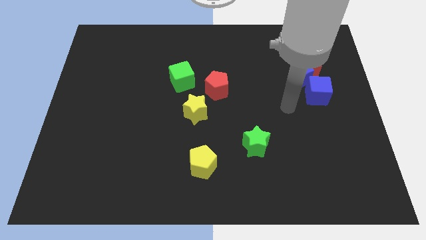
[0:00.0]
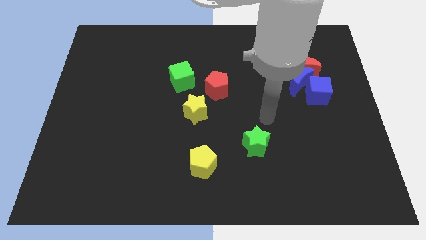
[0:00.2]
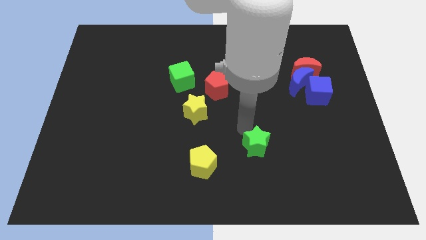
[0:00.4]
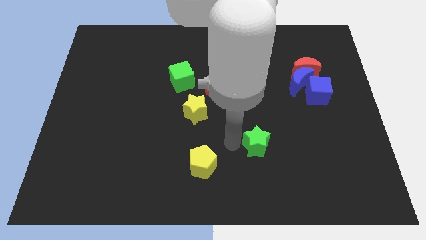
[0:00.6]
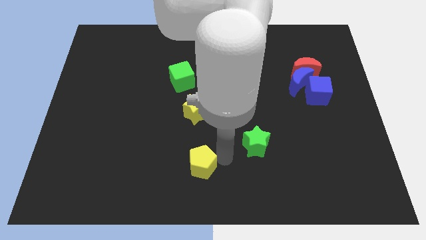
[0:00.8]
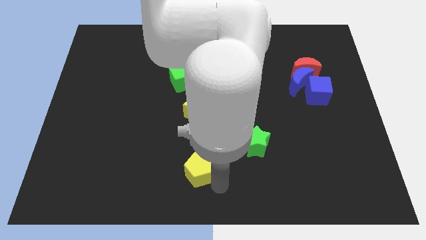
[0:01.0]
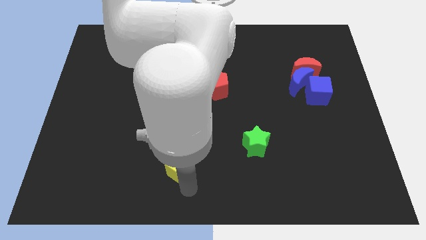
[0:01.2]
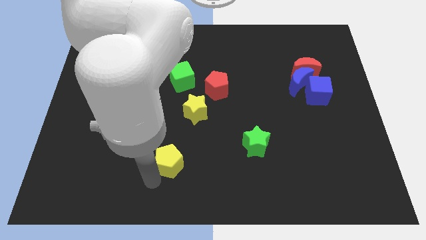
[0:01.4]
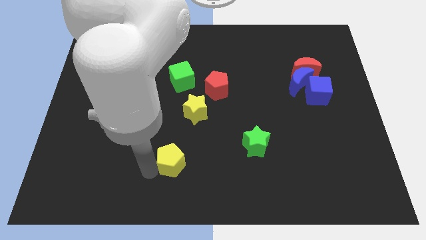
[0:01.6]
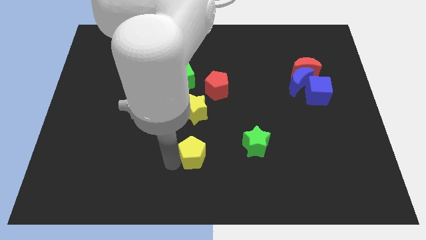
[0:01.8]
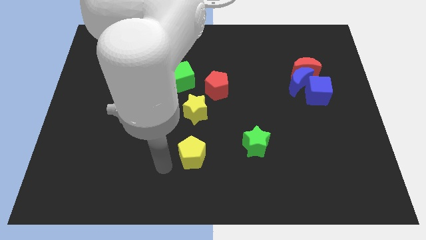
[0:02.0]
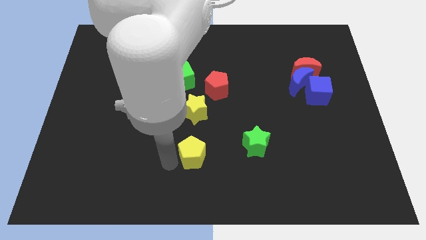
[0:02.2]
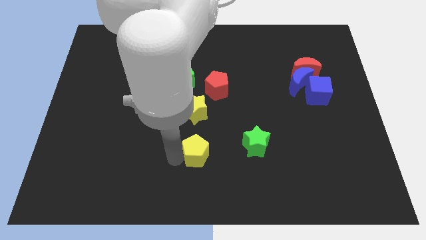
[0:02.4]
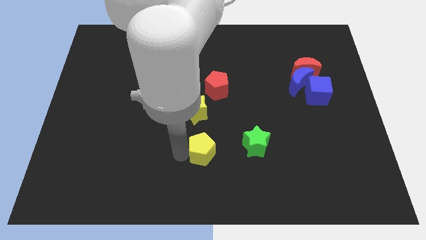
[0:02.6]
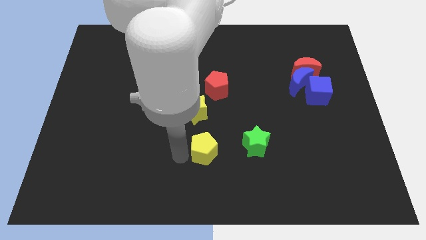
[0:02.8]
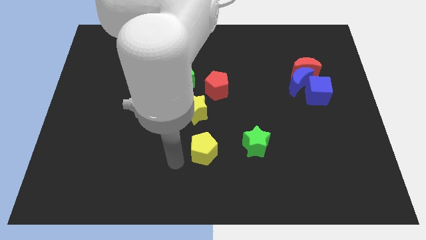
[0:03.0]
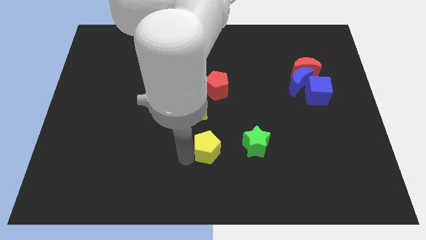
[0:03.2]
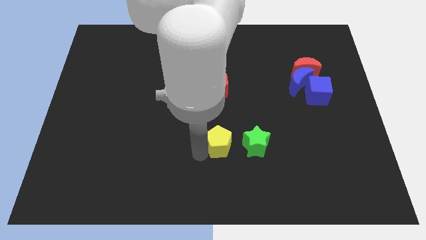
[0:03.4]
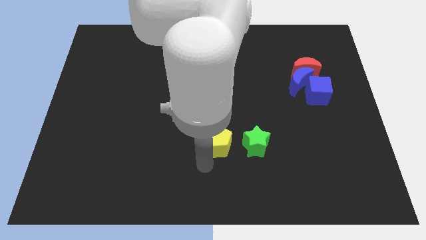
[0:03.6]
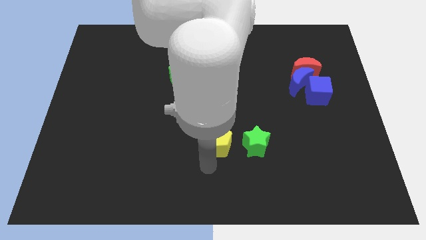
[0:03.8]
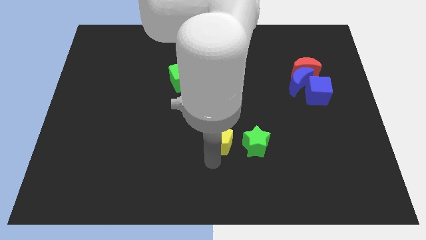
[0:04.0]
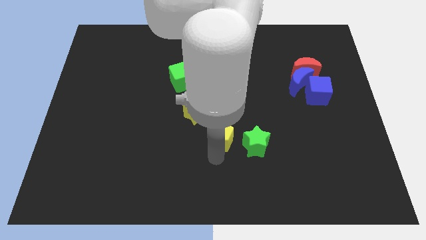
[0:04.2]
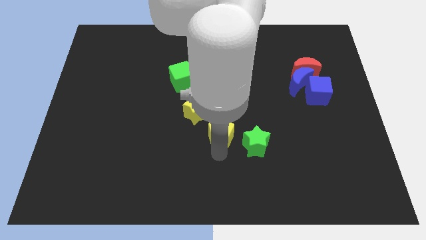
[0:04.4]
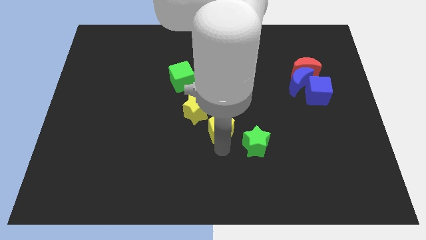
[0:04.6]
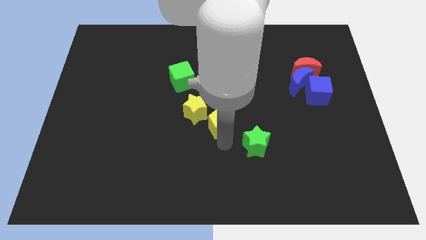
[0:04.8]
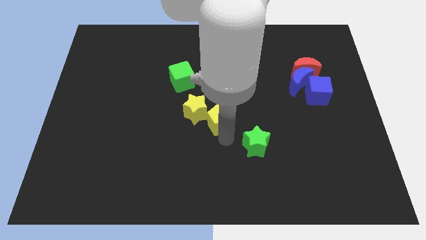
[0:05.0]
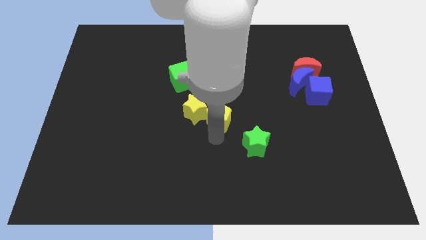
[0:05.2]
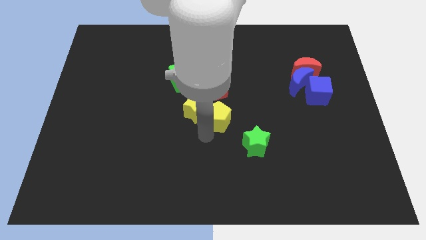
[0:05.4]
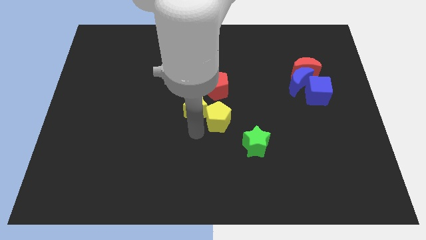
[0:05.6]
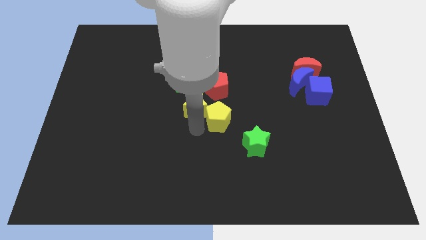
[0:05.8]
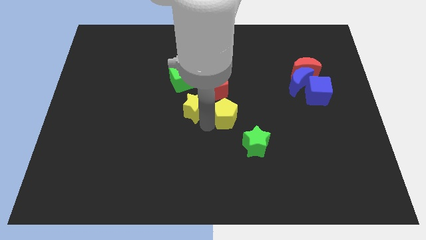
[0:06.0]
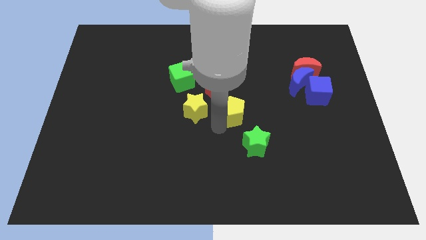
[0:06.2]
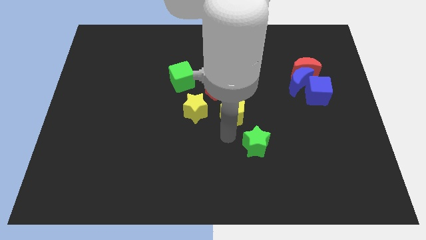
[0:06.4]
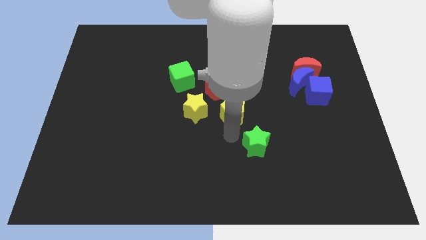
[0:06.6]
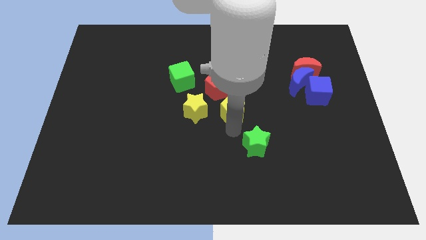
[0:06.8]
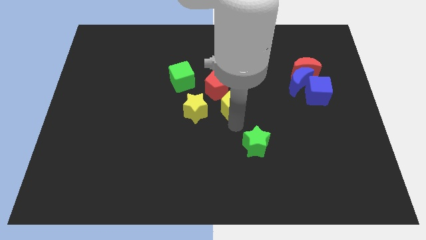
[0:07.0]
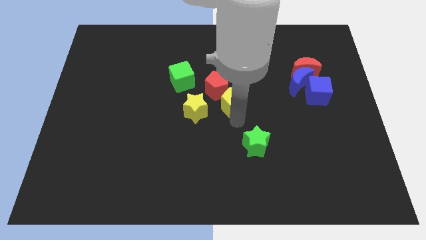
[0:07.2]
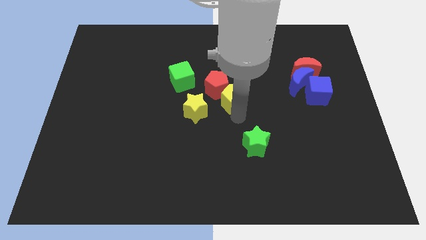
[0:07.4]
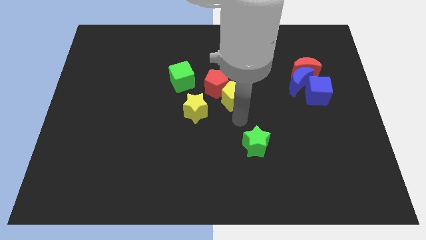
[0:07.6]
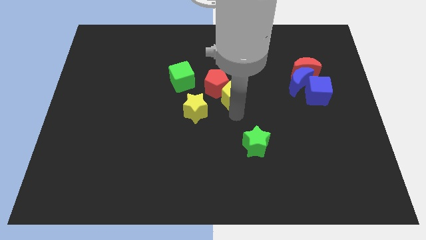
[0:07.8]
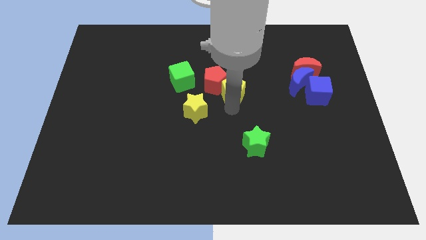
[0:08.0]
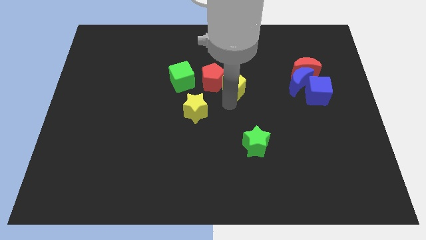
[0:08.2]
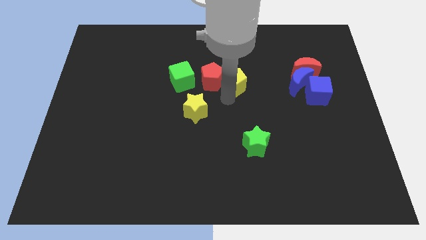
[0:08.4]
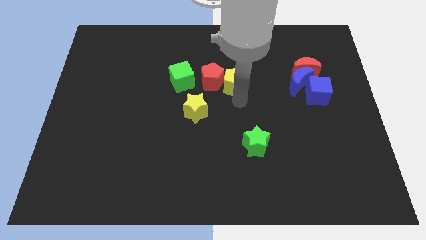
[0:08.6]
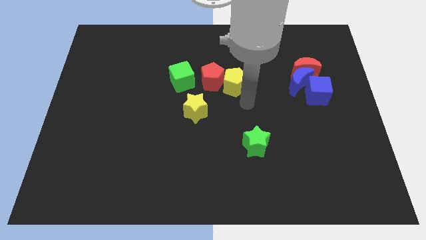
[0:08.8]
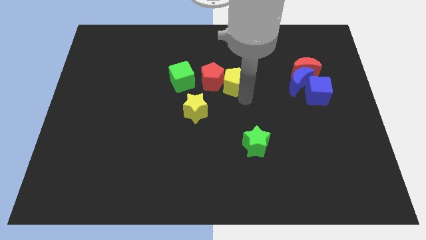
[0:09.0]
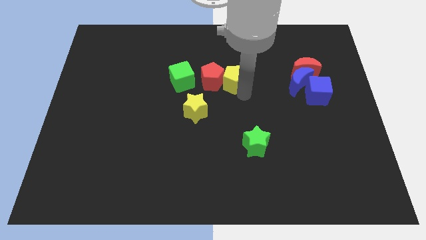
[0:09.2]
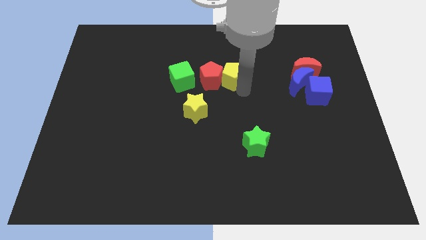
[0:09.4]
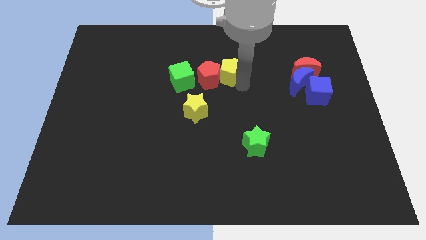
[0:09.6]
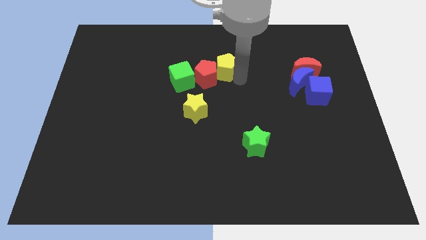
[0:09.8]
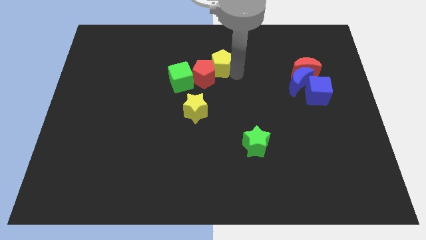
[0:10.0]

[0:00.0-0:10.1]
push the yellow pentagon above the red pentagon

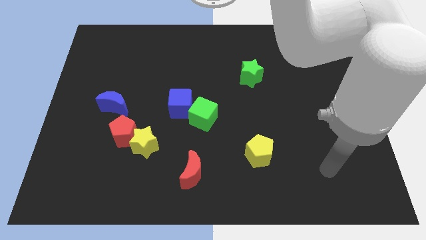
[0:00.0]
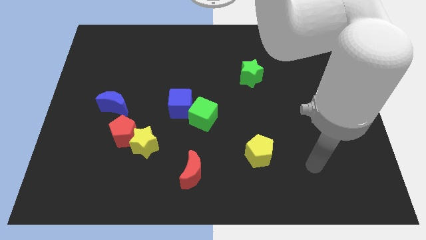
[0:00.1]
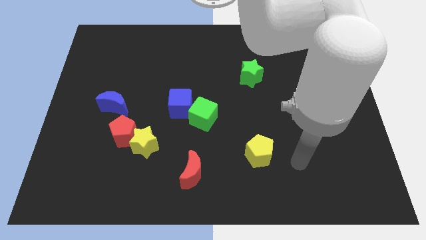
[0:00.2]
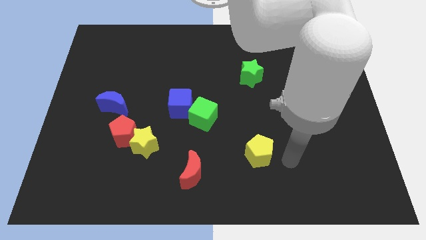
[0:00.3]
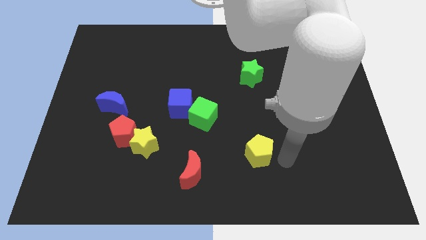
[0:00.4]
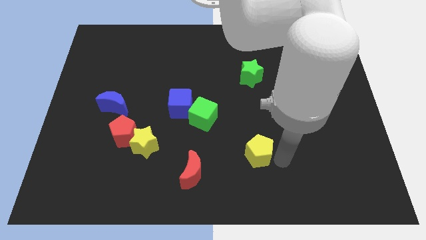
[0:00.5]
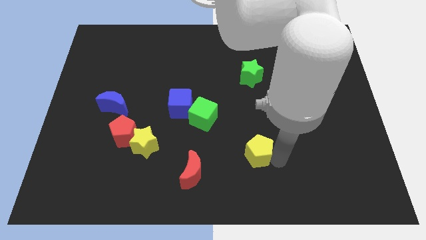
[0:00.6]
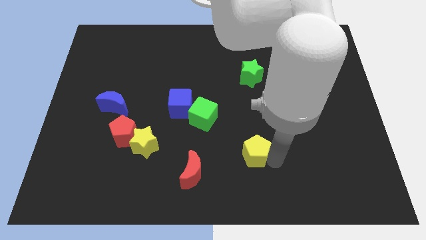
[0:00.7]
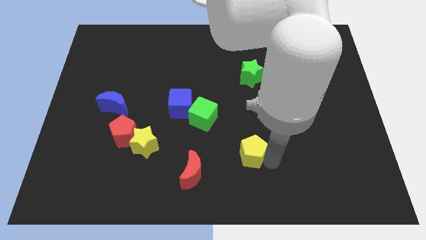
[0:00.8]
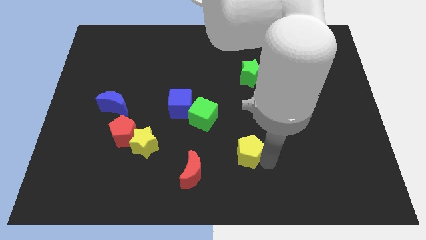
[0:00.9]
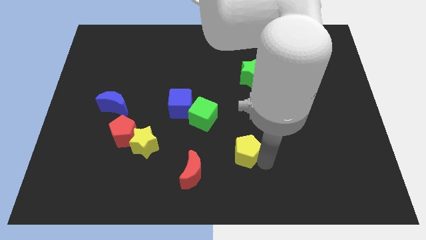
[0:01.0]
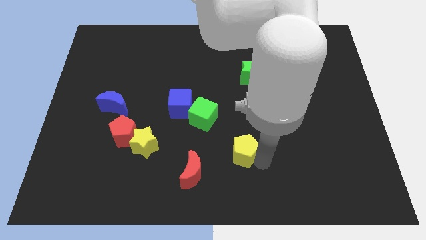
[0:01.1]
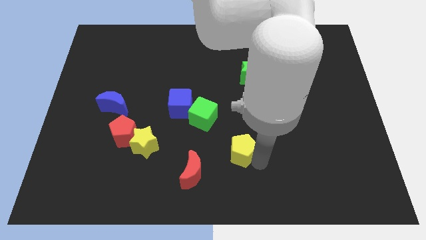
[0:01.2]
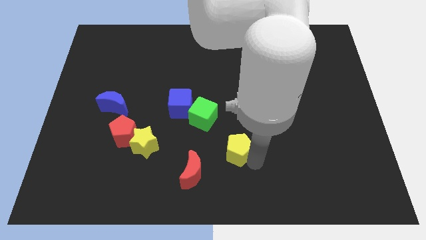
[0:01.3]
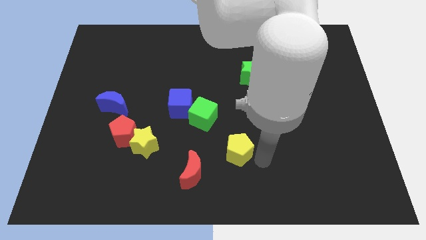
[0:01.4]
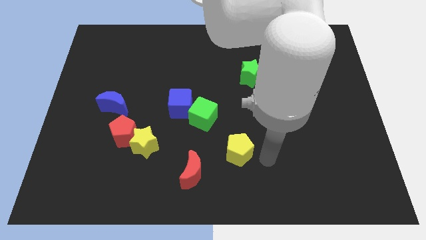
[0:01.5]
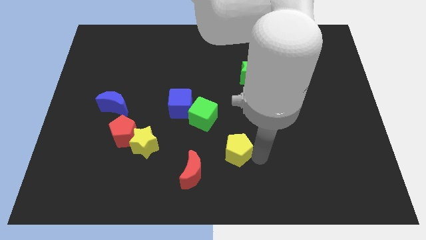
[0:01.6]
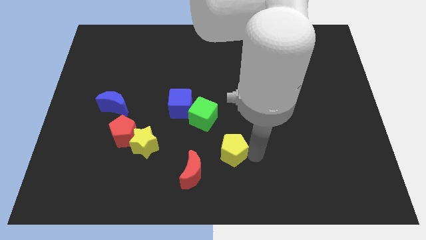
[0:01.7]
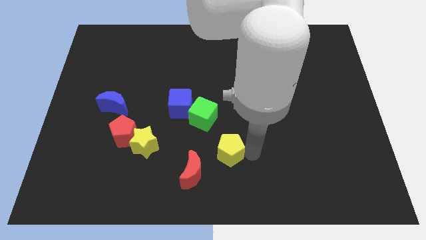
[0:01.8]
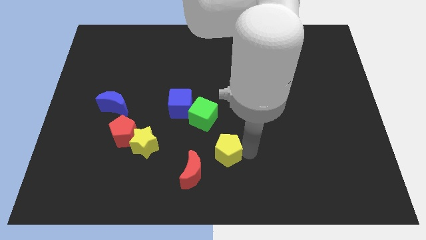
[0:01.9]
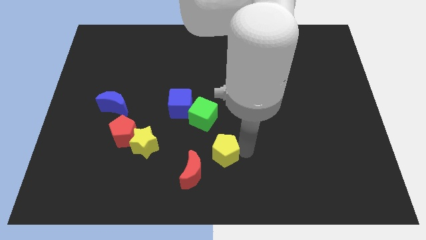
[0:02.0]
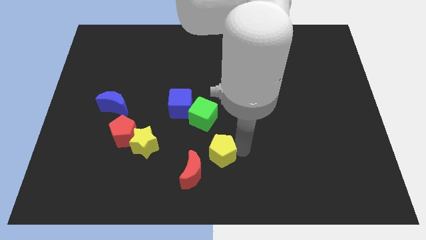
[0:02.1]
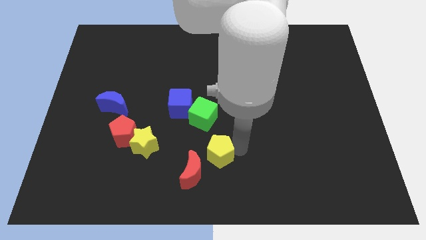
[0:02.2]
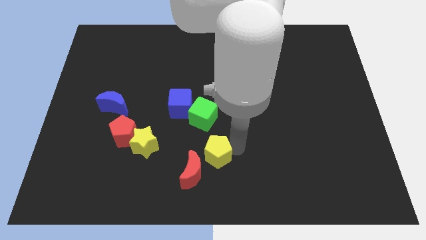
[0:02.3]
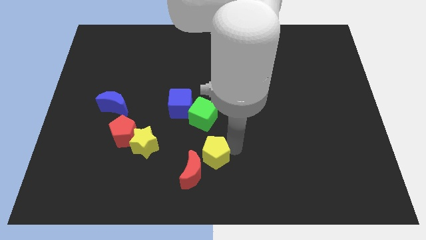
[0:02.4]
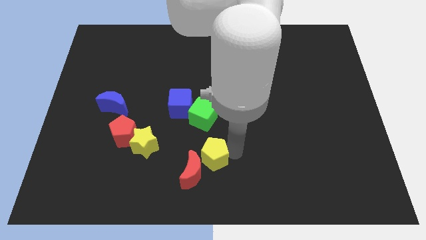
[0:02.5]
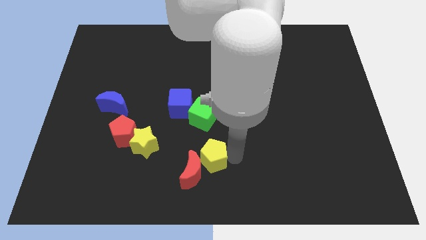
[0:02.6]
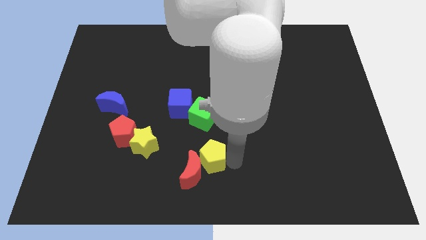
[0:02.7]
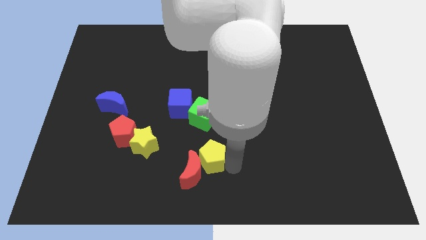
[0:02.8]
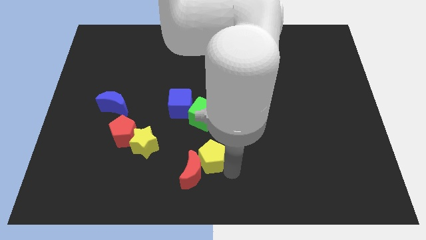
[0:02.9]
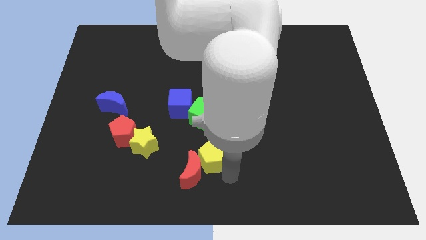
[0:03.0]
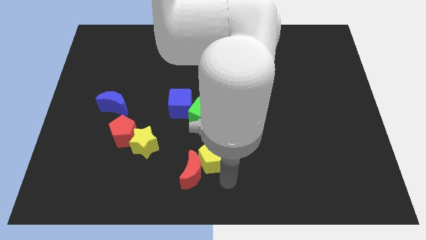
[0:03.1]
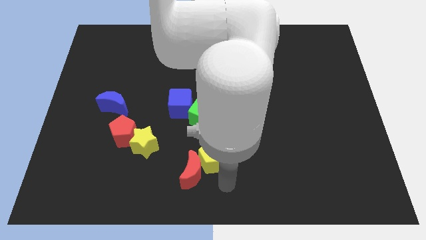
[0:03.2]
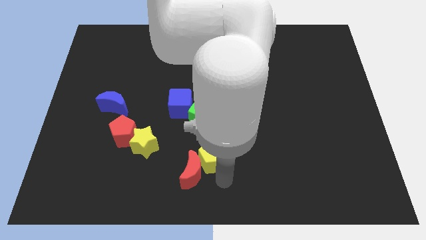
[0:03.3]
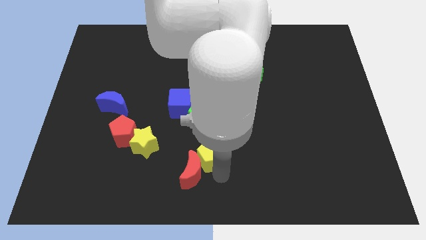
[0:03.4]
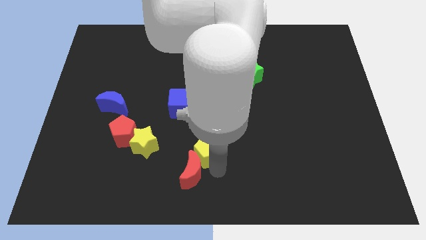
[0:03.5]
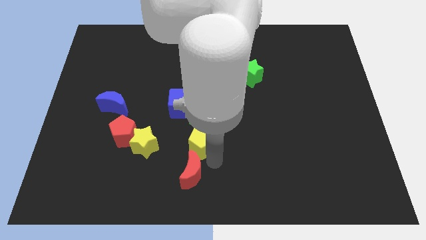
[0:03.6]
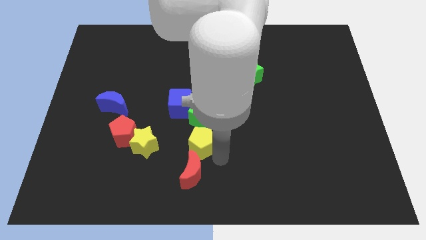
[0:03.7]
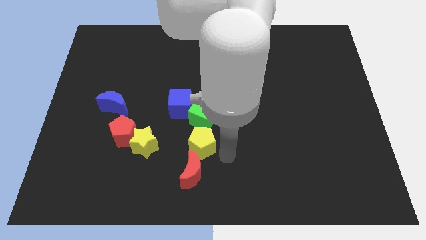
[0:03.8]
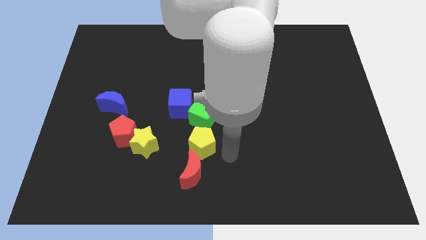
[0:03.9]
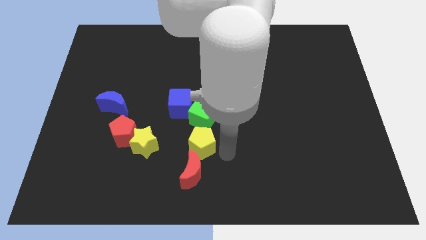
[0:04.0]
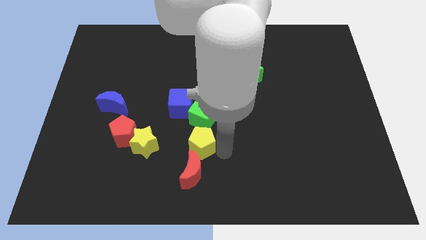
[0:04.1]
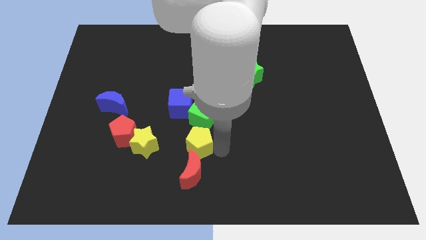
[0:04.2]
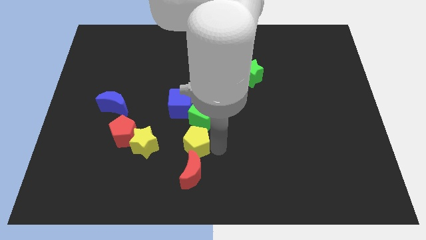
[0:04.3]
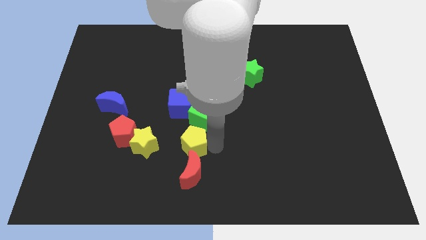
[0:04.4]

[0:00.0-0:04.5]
put the yellow pentagon right of the red pentagon
